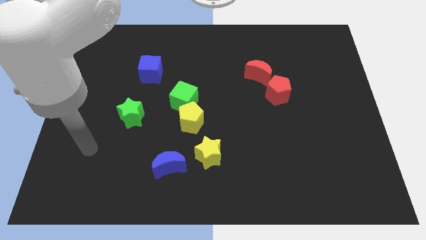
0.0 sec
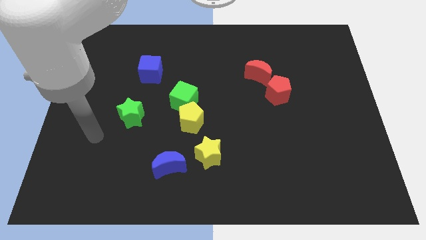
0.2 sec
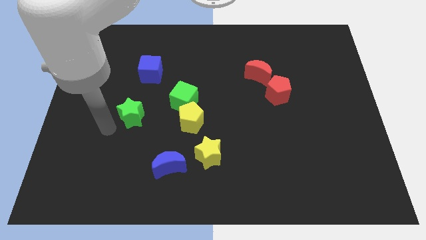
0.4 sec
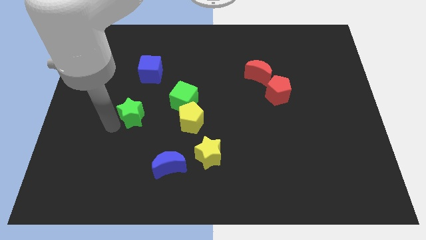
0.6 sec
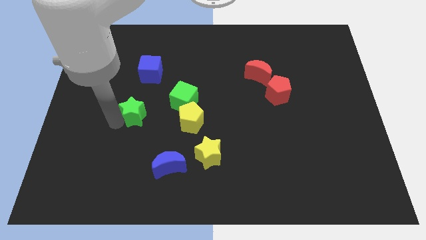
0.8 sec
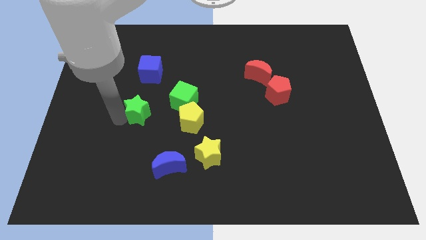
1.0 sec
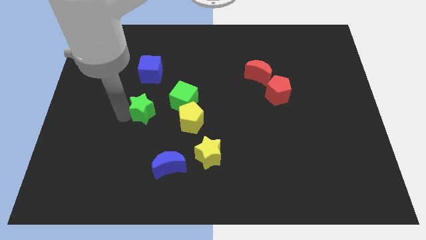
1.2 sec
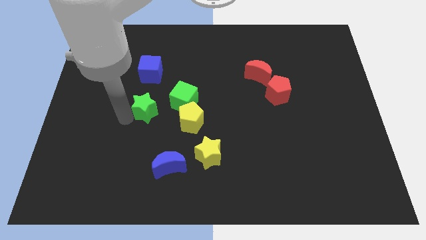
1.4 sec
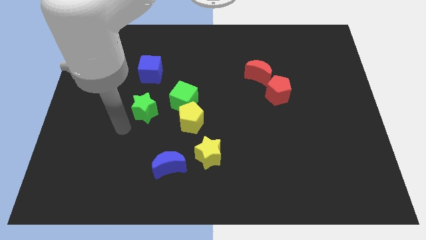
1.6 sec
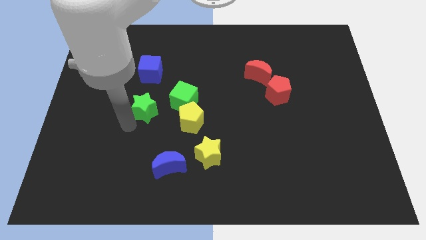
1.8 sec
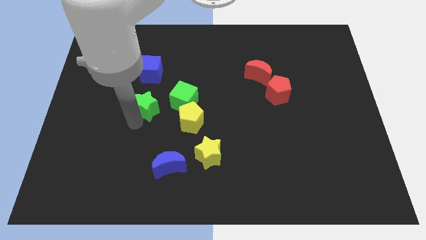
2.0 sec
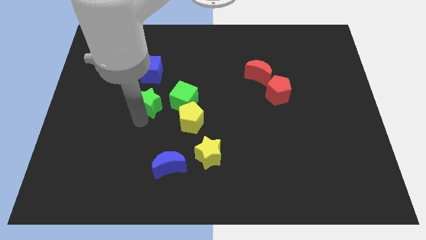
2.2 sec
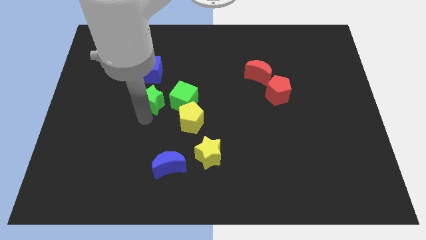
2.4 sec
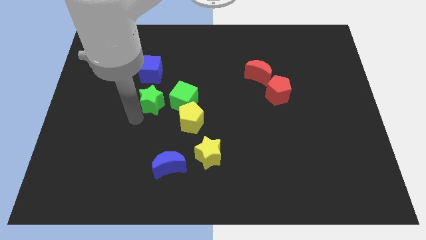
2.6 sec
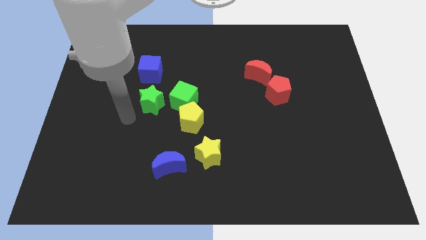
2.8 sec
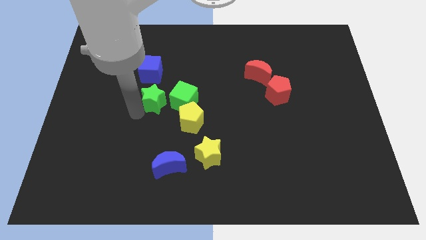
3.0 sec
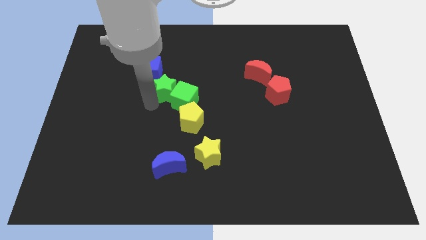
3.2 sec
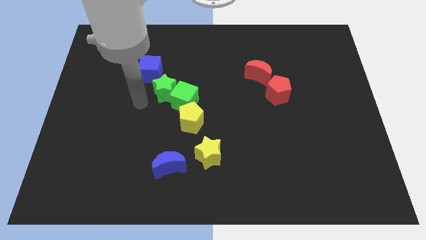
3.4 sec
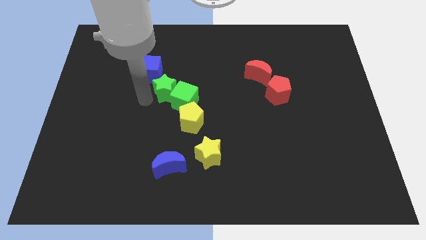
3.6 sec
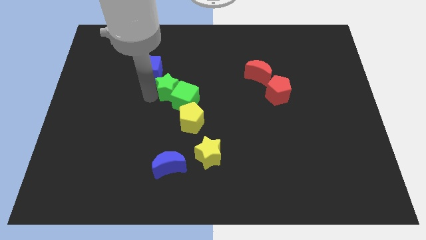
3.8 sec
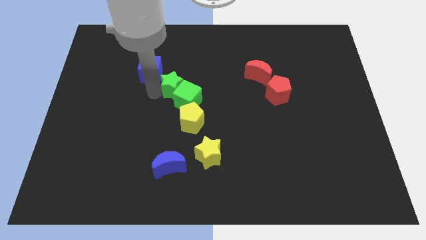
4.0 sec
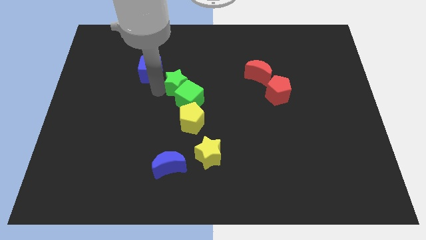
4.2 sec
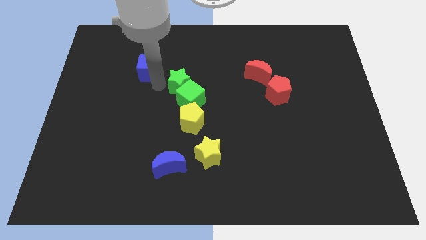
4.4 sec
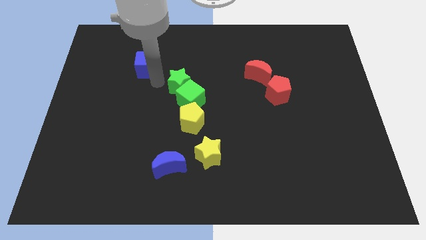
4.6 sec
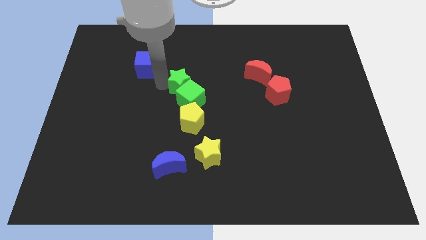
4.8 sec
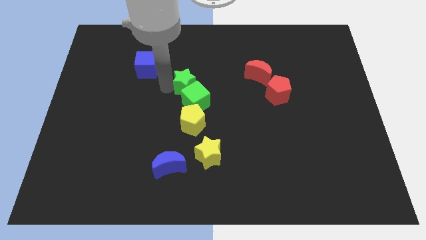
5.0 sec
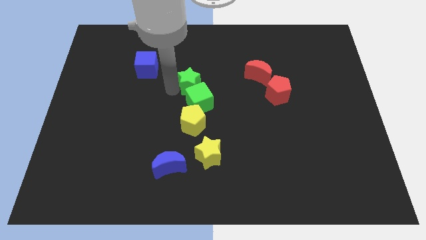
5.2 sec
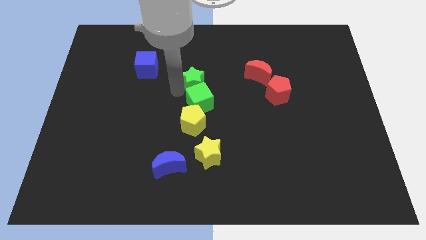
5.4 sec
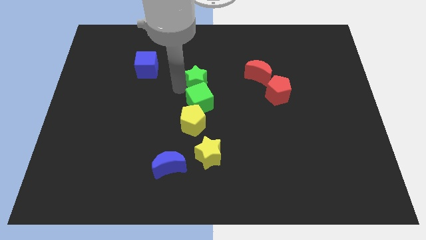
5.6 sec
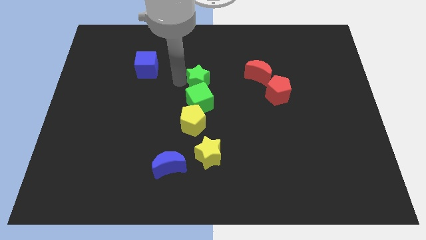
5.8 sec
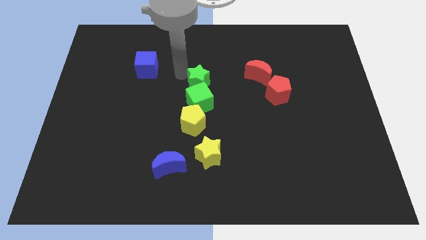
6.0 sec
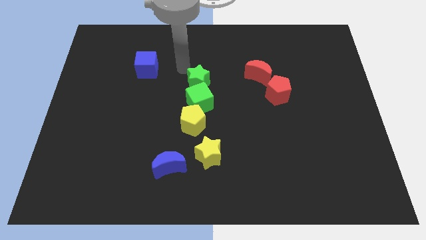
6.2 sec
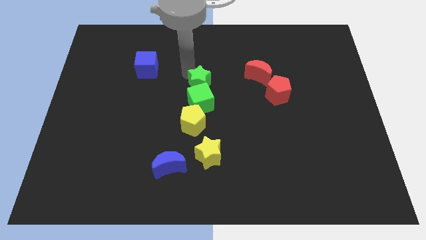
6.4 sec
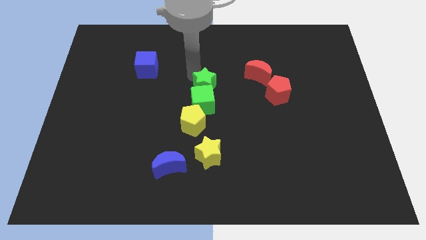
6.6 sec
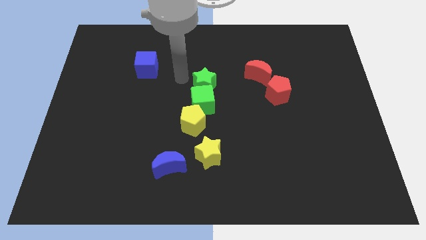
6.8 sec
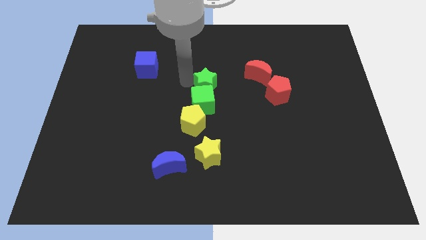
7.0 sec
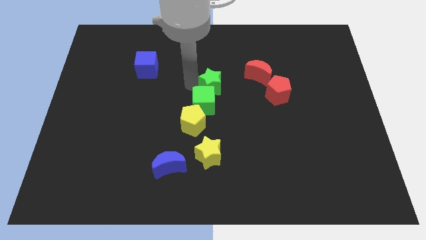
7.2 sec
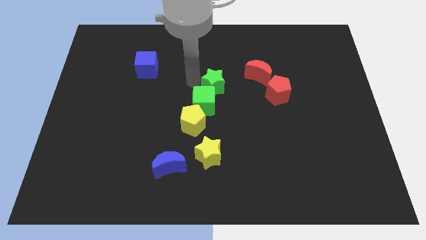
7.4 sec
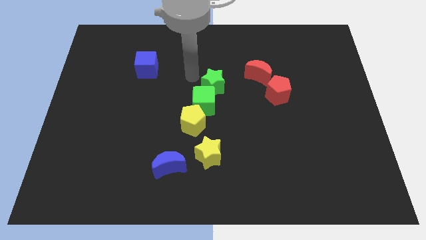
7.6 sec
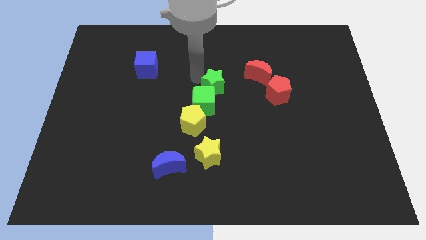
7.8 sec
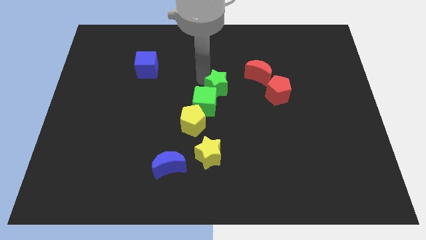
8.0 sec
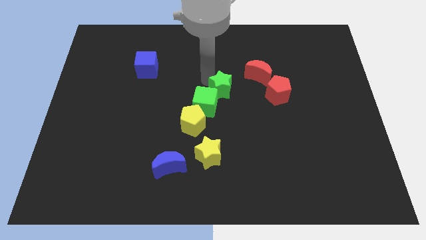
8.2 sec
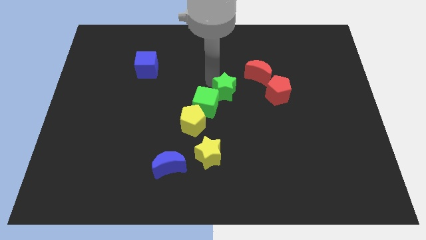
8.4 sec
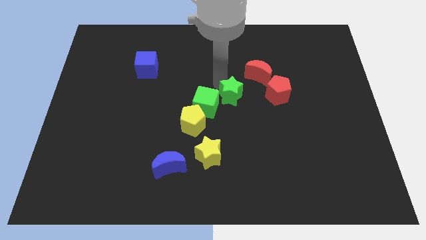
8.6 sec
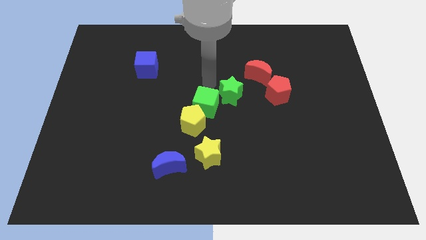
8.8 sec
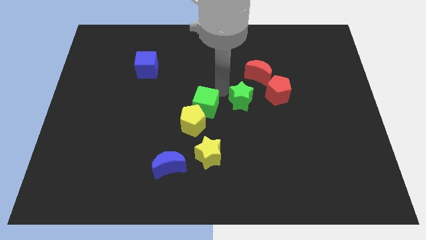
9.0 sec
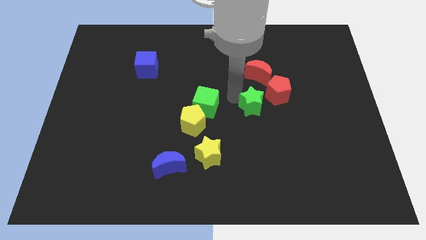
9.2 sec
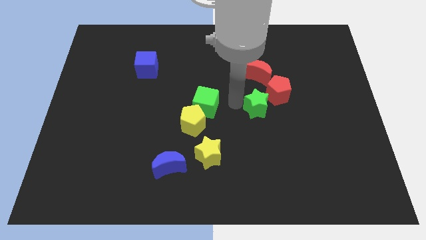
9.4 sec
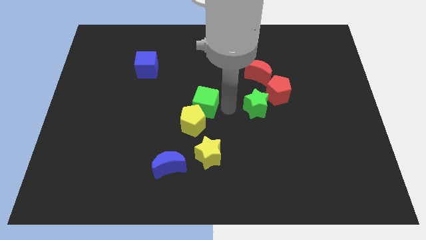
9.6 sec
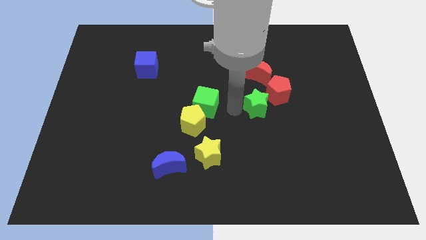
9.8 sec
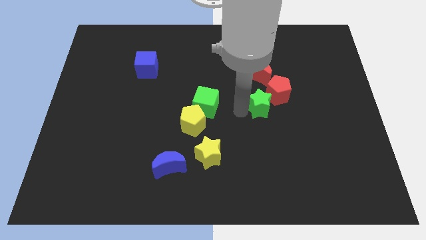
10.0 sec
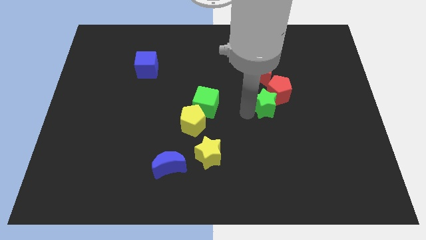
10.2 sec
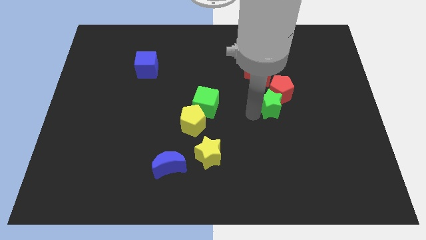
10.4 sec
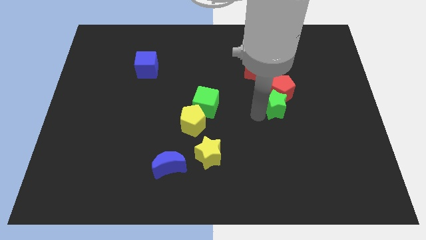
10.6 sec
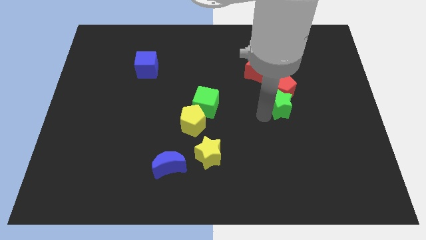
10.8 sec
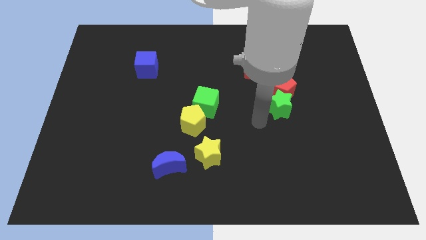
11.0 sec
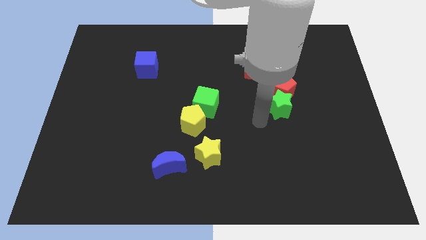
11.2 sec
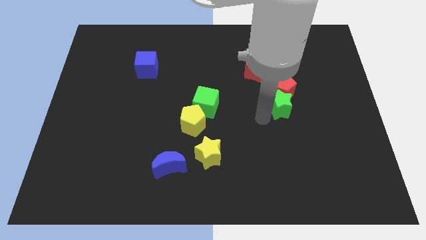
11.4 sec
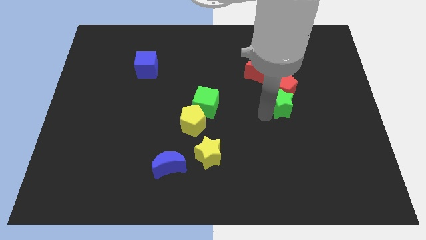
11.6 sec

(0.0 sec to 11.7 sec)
slide the green star to the bottom right of the red moon

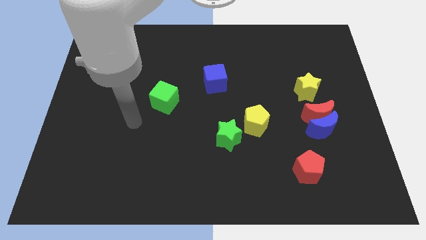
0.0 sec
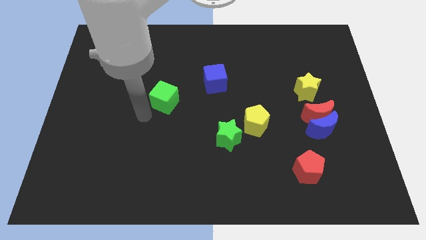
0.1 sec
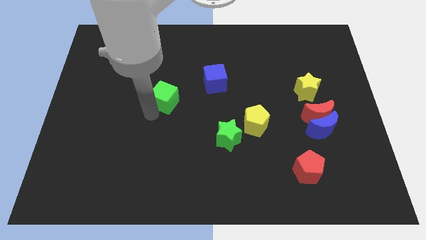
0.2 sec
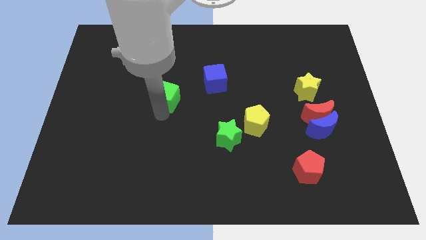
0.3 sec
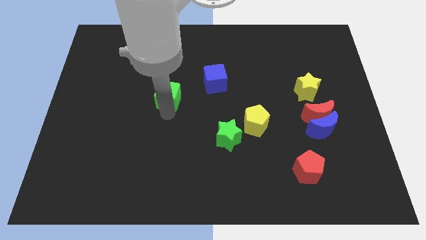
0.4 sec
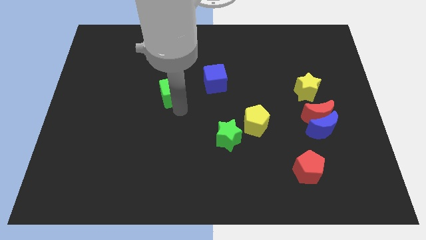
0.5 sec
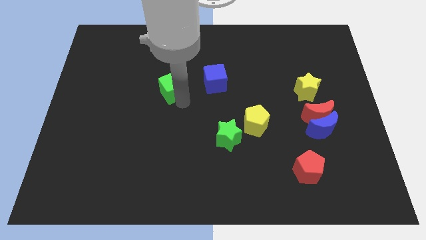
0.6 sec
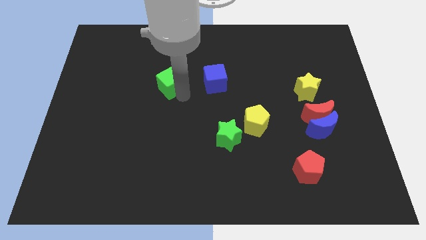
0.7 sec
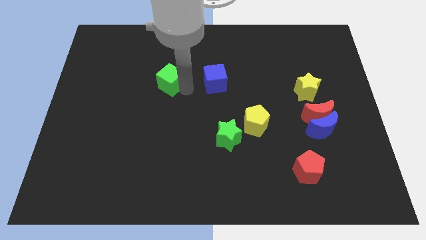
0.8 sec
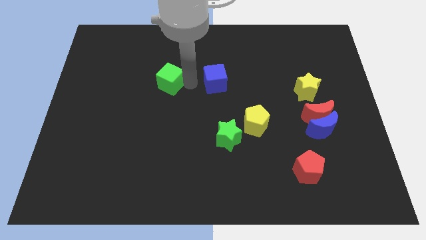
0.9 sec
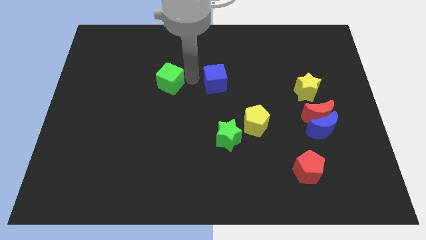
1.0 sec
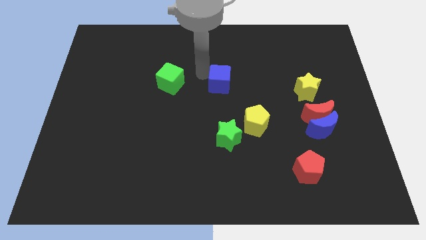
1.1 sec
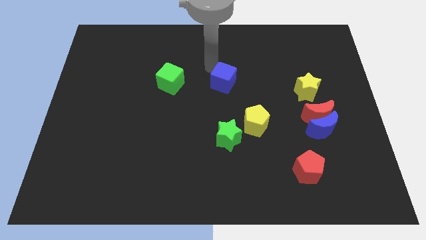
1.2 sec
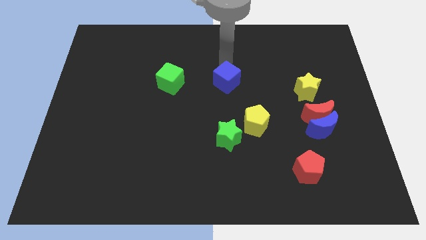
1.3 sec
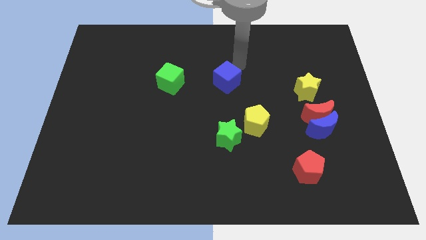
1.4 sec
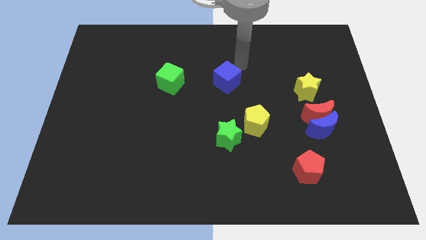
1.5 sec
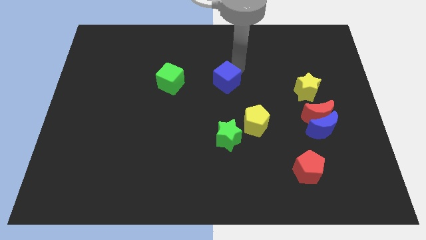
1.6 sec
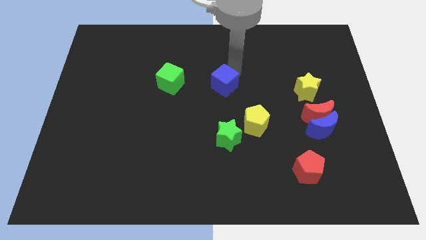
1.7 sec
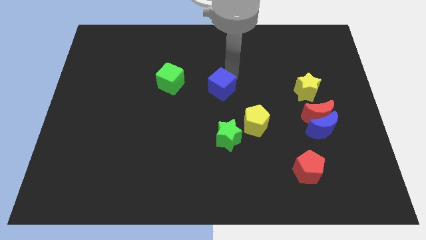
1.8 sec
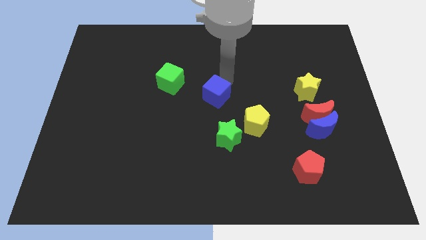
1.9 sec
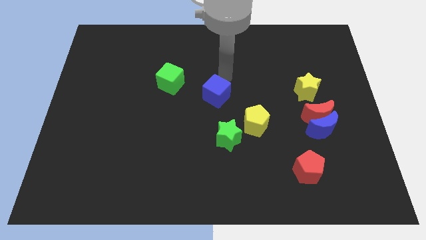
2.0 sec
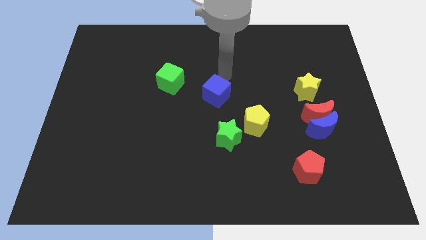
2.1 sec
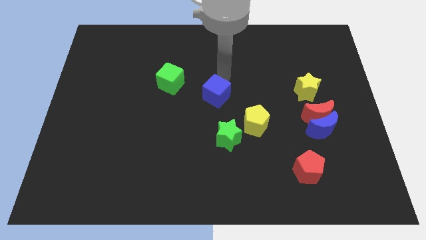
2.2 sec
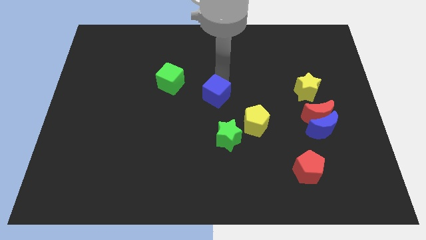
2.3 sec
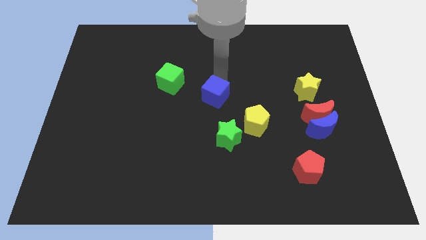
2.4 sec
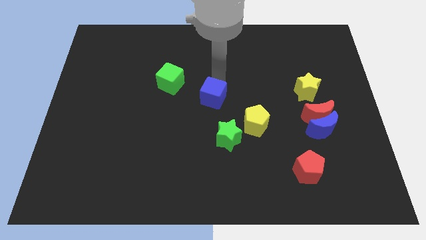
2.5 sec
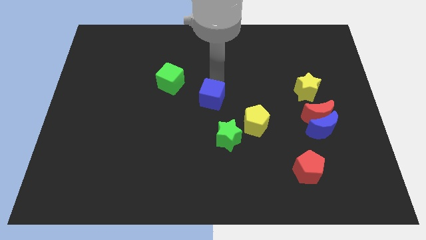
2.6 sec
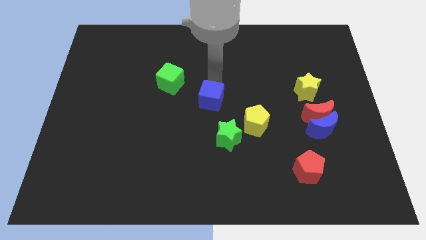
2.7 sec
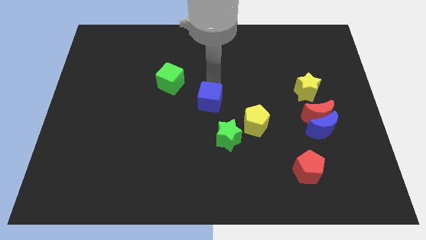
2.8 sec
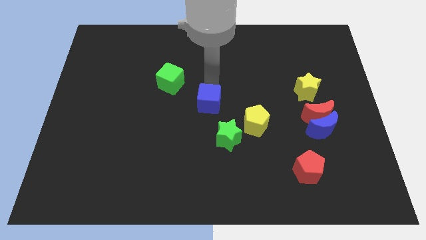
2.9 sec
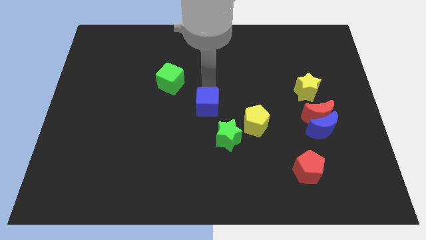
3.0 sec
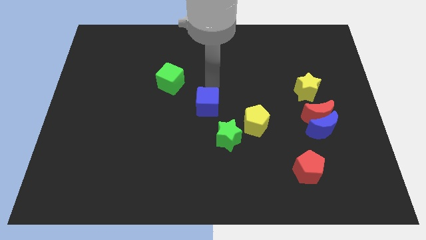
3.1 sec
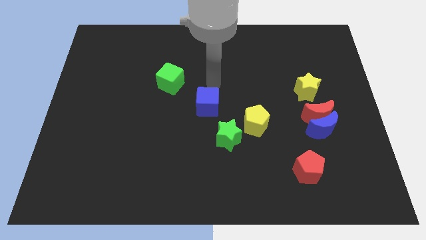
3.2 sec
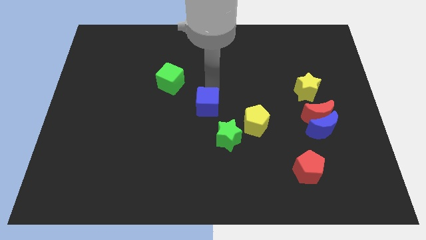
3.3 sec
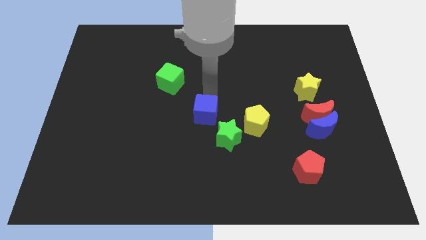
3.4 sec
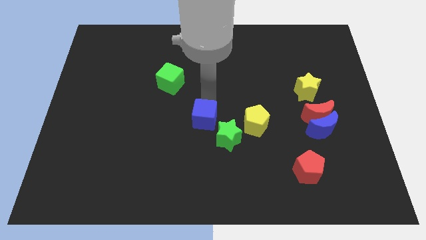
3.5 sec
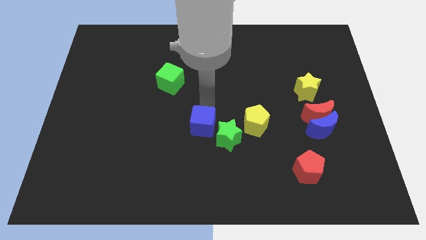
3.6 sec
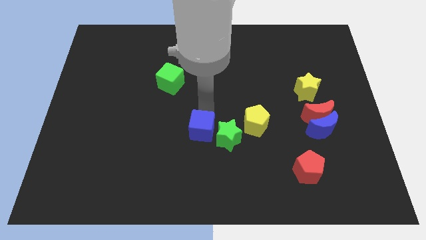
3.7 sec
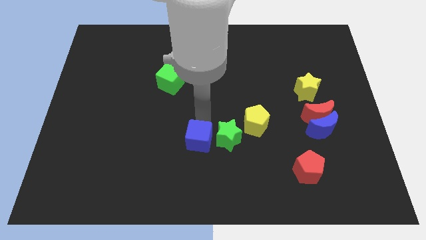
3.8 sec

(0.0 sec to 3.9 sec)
move the blue cube to the bottom left of the green star
